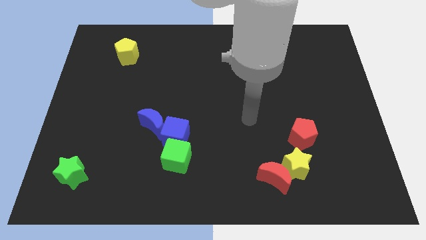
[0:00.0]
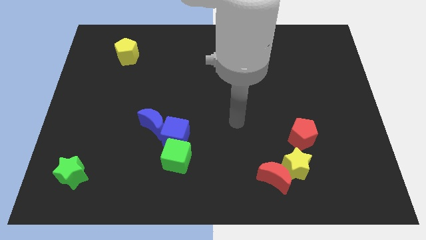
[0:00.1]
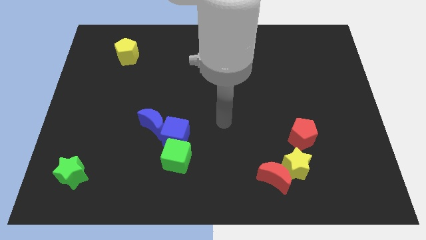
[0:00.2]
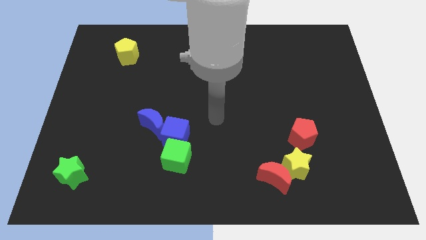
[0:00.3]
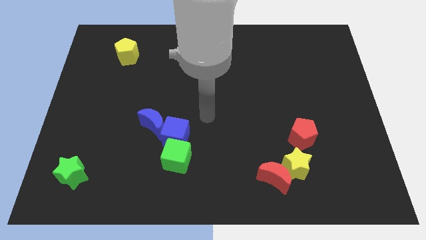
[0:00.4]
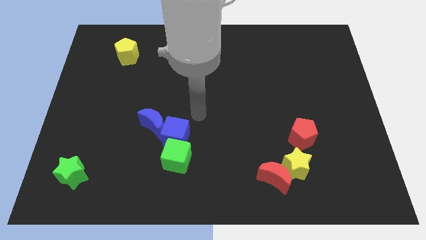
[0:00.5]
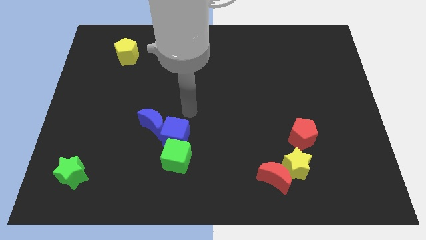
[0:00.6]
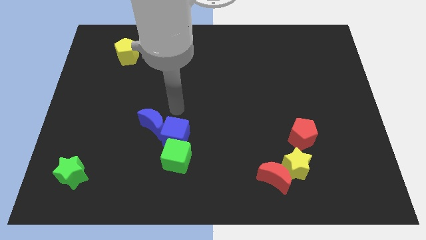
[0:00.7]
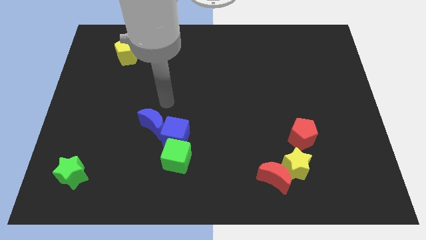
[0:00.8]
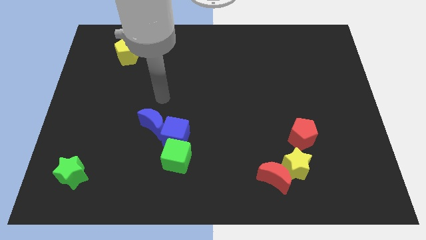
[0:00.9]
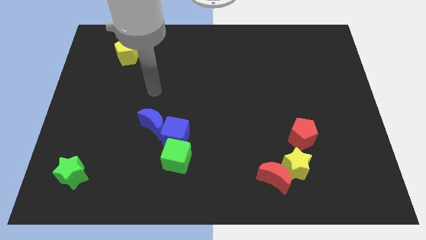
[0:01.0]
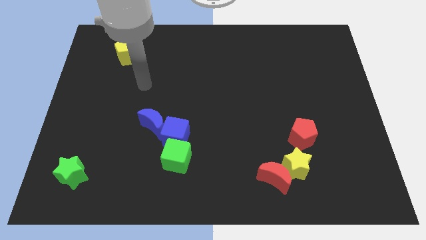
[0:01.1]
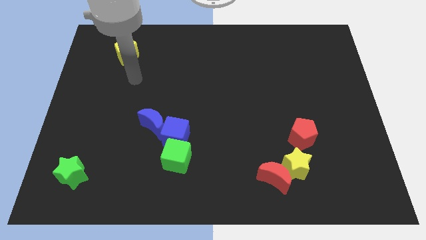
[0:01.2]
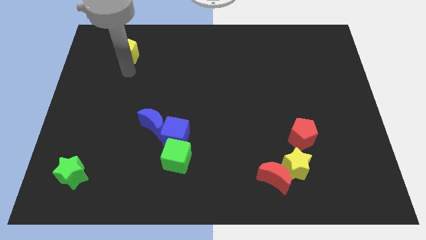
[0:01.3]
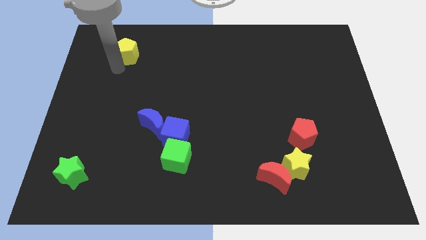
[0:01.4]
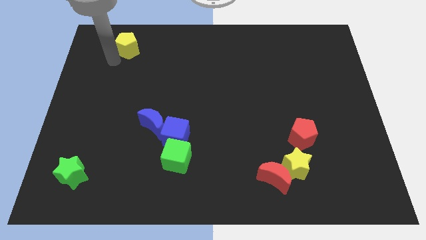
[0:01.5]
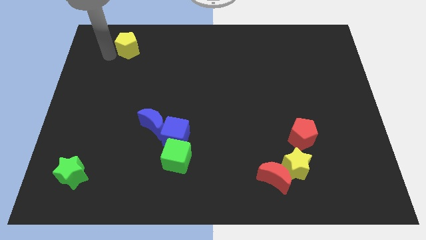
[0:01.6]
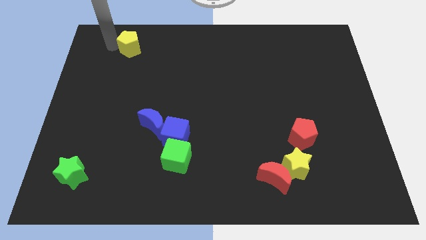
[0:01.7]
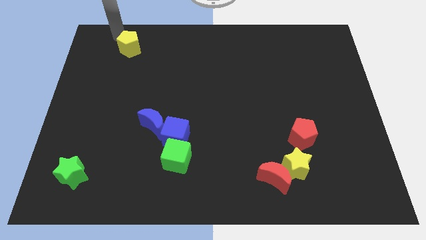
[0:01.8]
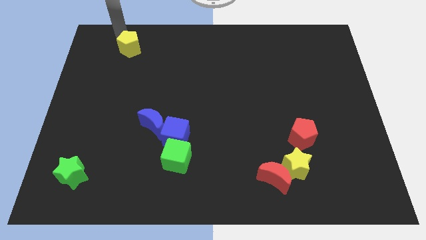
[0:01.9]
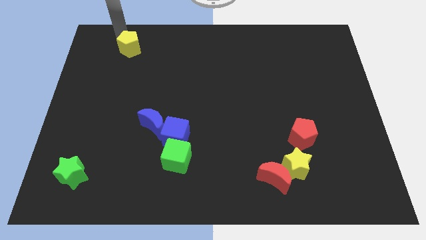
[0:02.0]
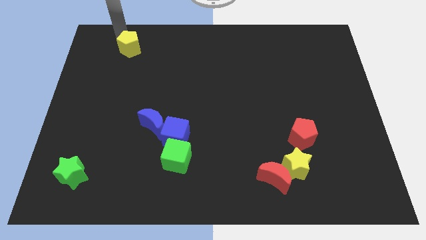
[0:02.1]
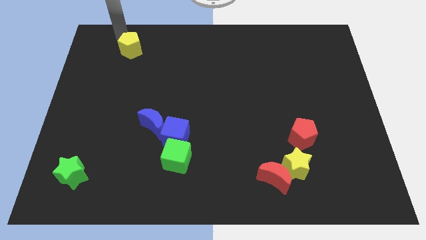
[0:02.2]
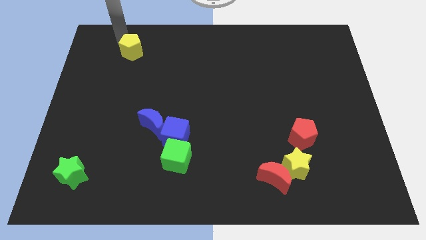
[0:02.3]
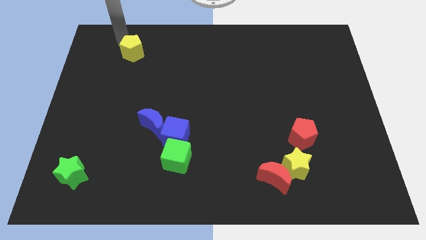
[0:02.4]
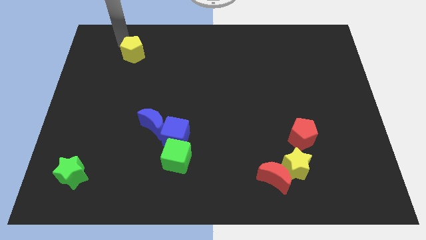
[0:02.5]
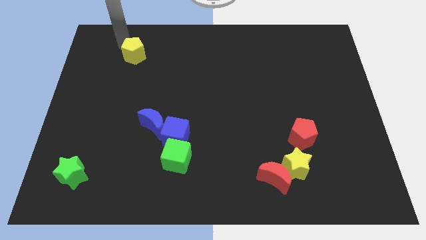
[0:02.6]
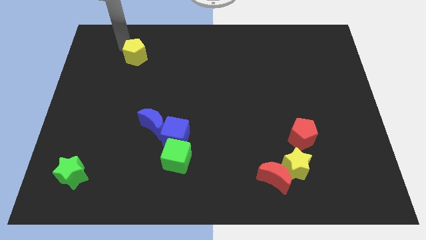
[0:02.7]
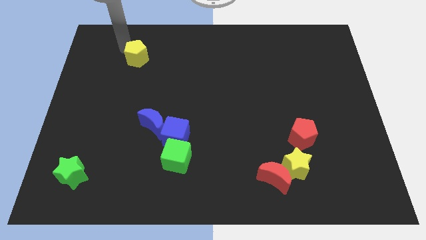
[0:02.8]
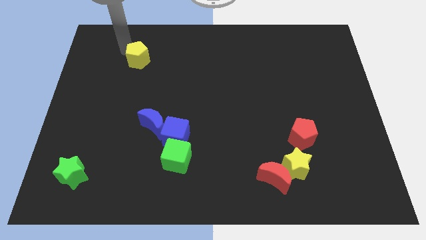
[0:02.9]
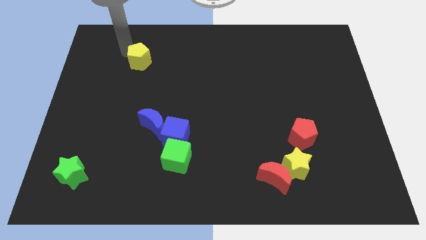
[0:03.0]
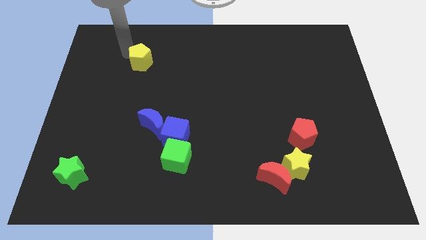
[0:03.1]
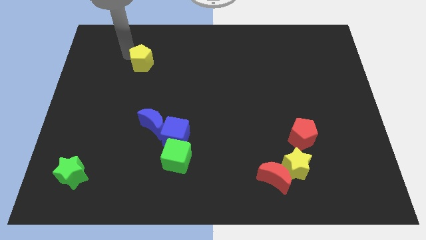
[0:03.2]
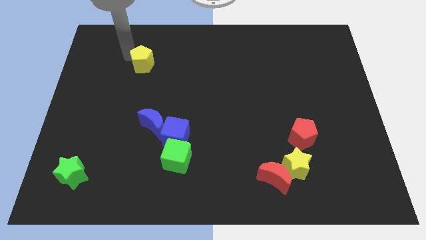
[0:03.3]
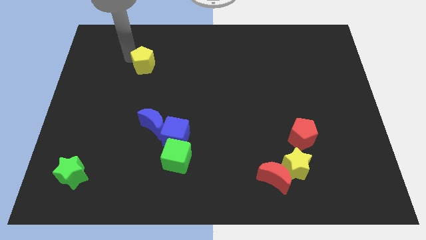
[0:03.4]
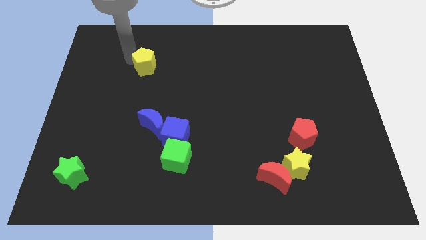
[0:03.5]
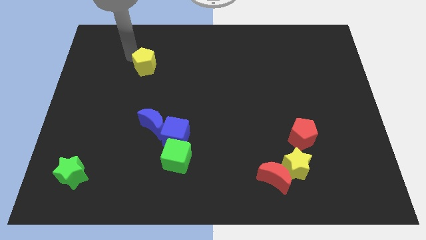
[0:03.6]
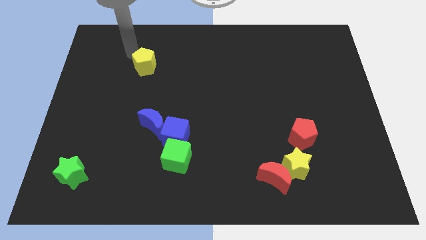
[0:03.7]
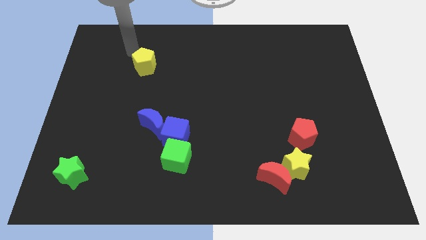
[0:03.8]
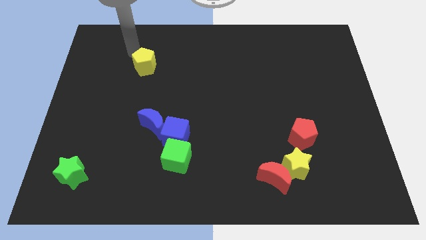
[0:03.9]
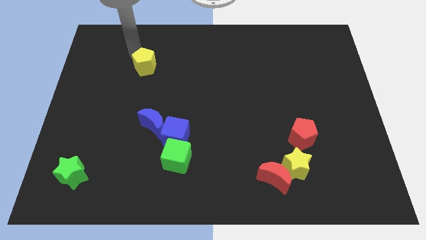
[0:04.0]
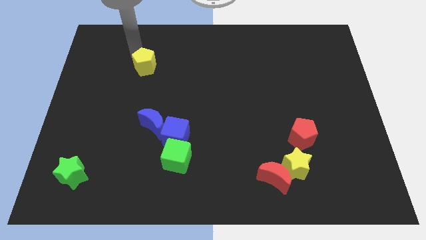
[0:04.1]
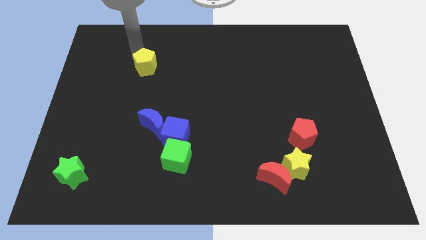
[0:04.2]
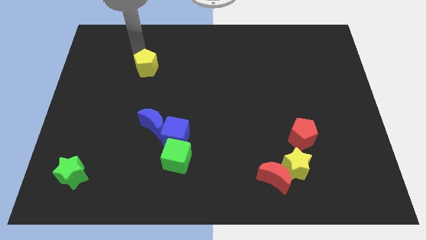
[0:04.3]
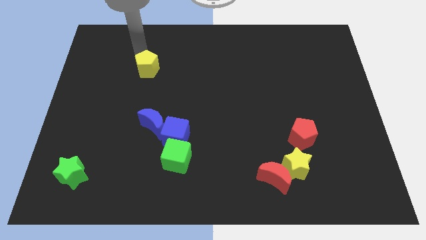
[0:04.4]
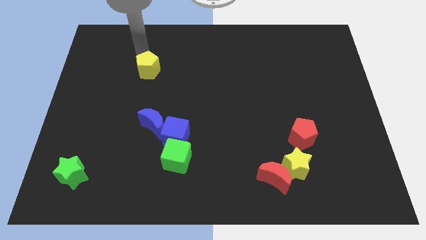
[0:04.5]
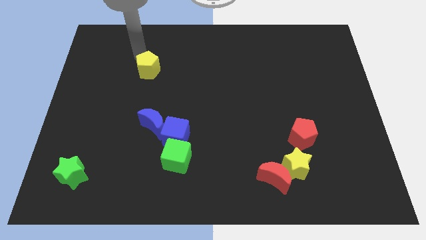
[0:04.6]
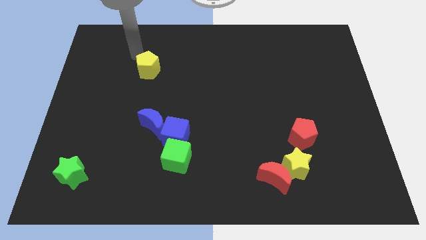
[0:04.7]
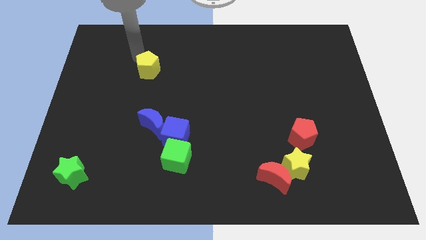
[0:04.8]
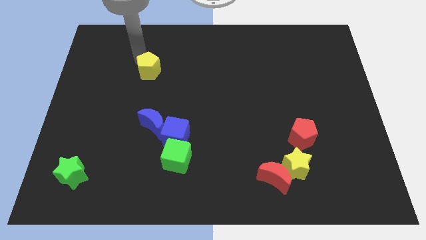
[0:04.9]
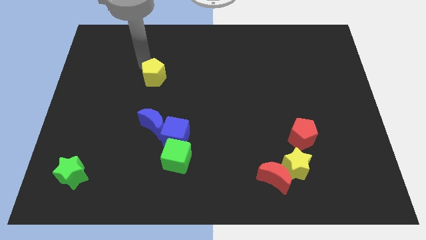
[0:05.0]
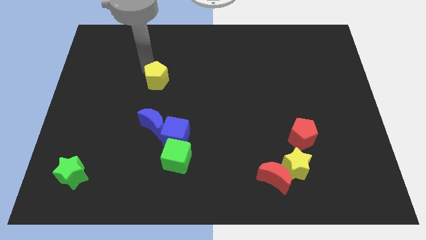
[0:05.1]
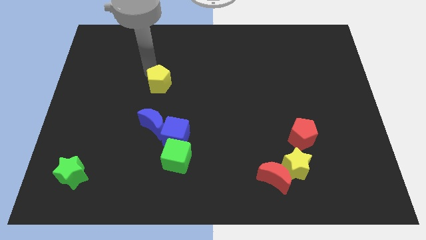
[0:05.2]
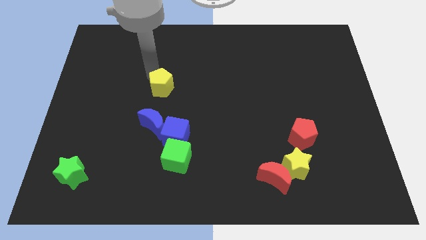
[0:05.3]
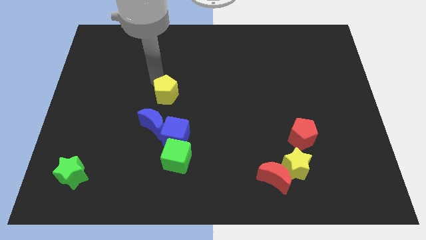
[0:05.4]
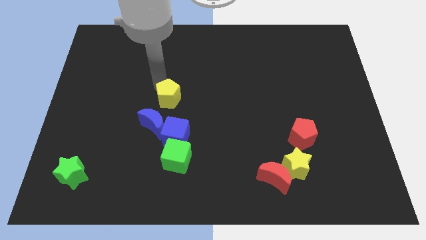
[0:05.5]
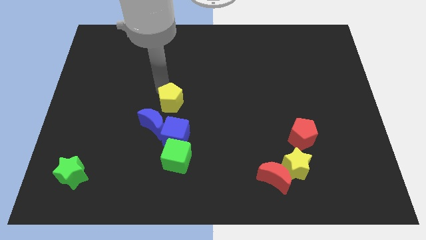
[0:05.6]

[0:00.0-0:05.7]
slide the yellow pentagon downwards and right

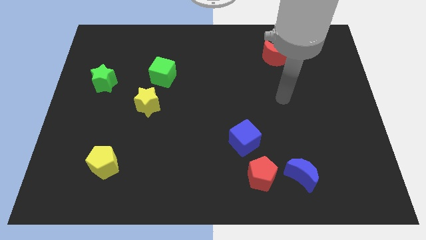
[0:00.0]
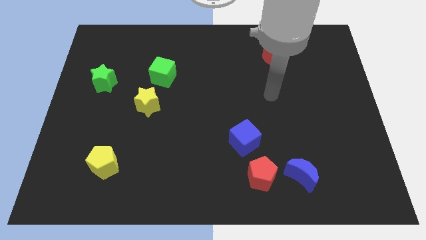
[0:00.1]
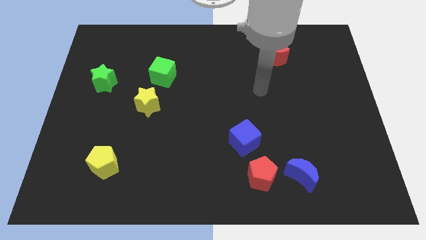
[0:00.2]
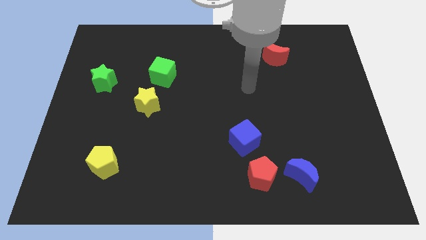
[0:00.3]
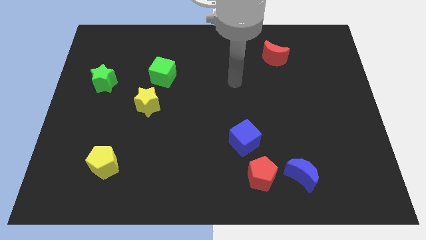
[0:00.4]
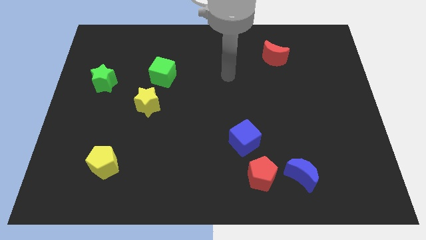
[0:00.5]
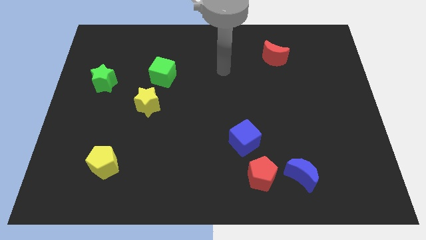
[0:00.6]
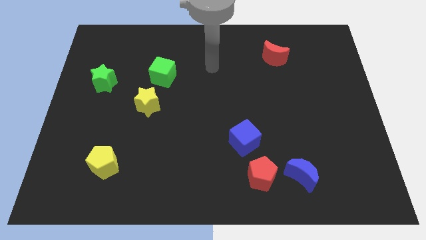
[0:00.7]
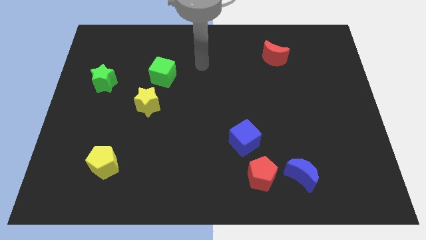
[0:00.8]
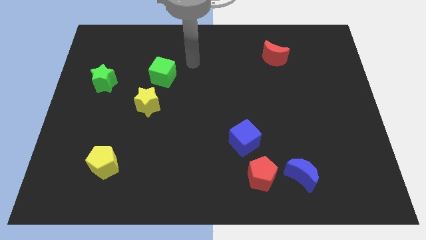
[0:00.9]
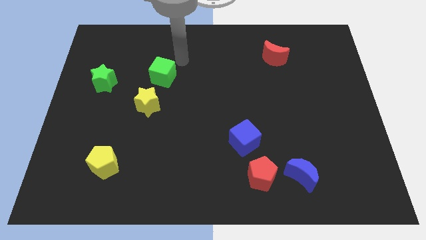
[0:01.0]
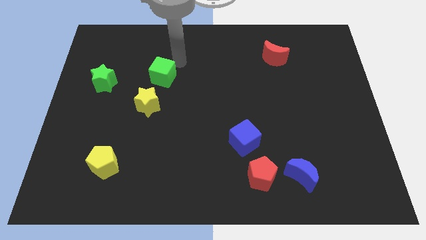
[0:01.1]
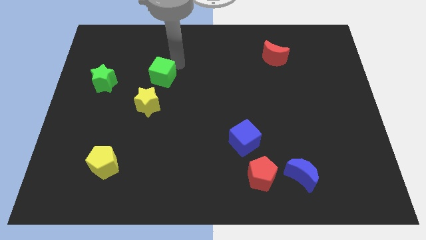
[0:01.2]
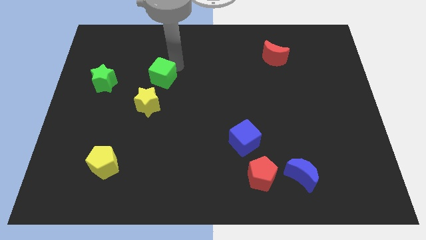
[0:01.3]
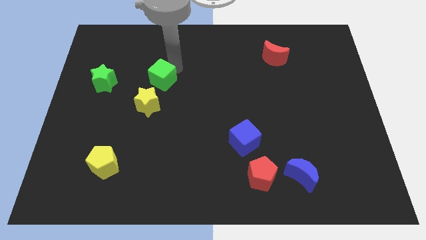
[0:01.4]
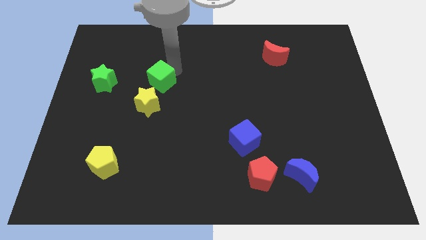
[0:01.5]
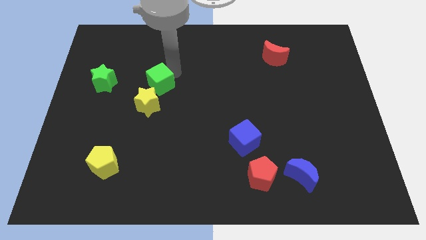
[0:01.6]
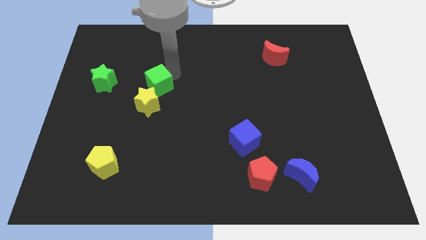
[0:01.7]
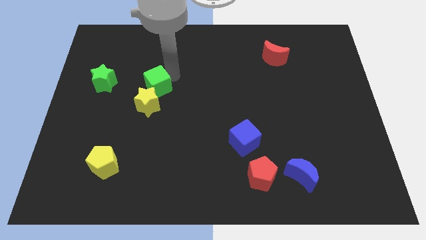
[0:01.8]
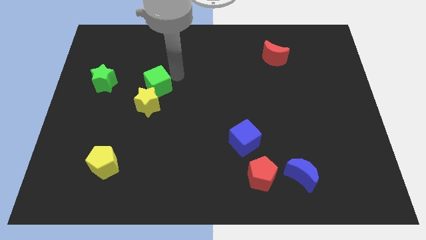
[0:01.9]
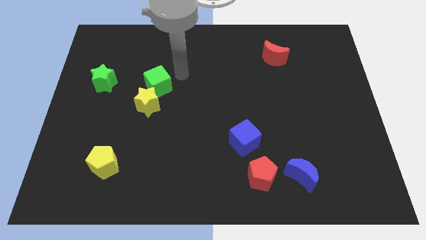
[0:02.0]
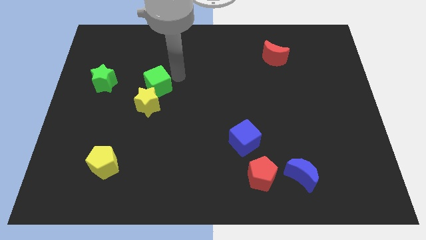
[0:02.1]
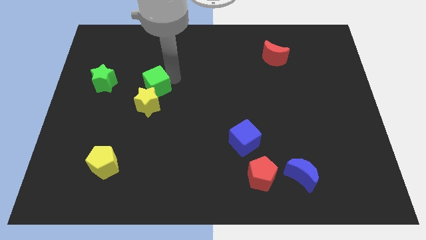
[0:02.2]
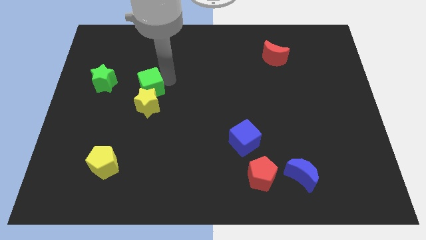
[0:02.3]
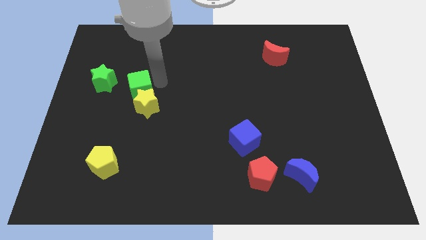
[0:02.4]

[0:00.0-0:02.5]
move the green cube a little downwards and left diagonally
